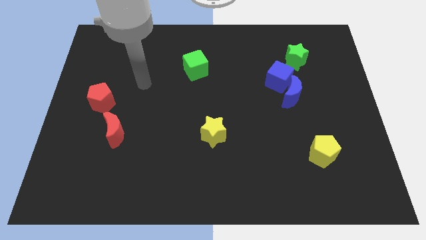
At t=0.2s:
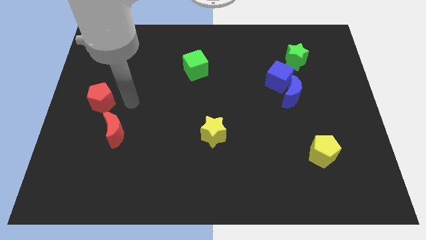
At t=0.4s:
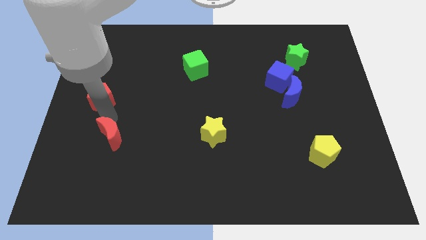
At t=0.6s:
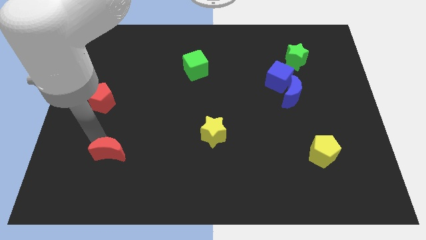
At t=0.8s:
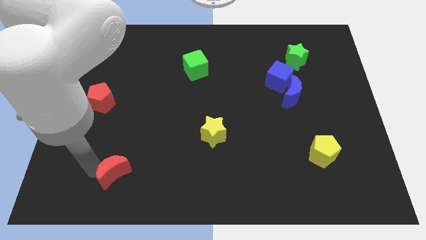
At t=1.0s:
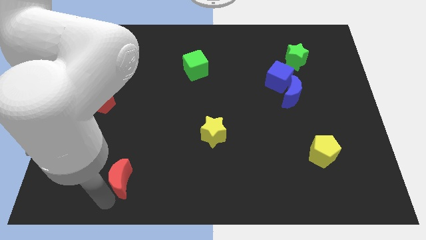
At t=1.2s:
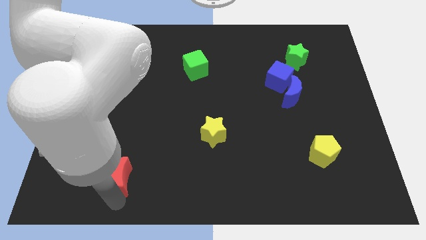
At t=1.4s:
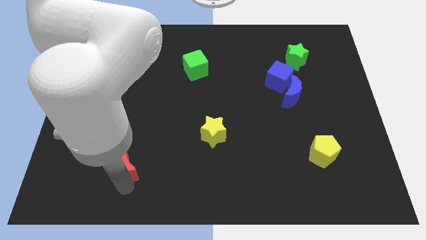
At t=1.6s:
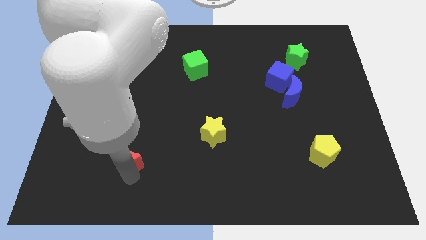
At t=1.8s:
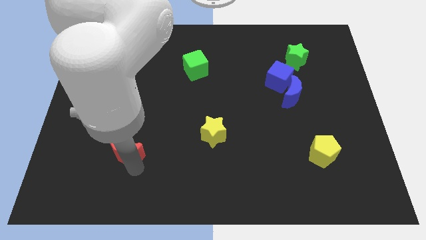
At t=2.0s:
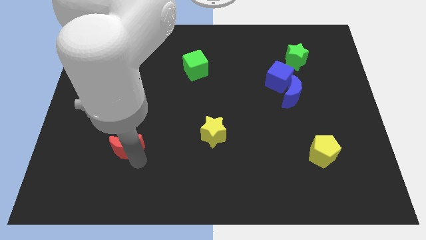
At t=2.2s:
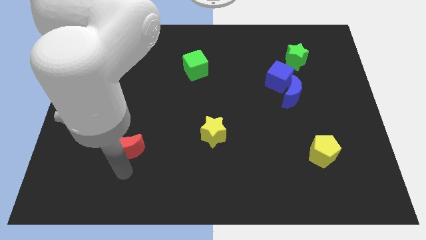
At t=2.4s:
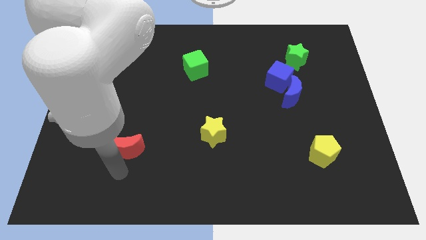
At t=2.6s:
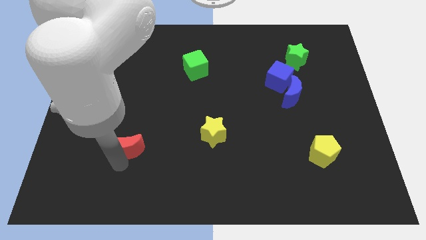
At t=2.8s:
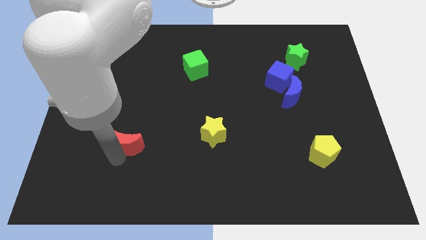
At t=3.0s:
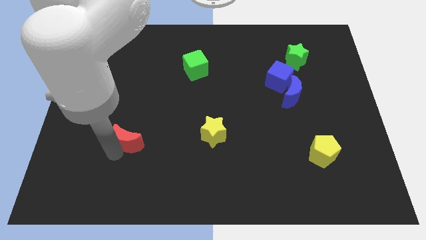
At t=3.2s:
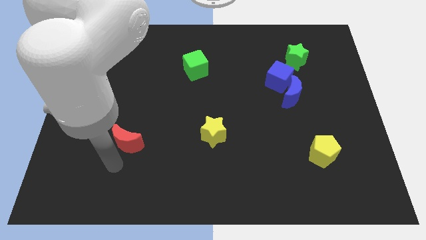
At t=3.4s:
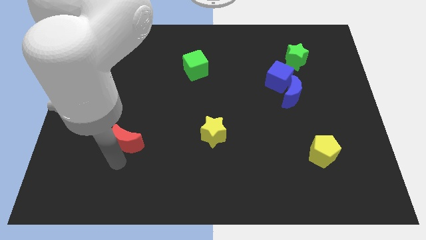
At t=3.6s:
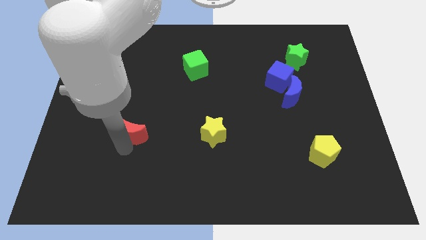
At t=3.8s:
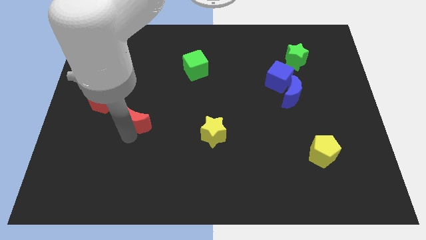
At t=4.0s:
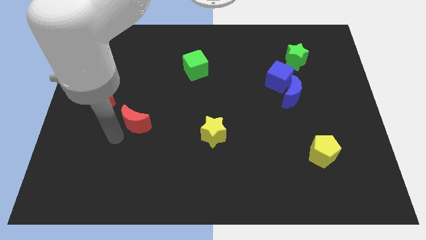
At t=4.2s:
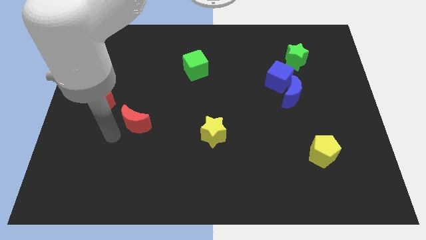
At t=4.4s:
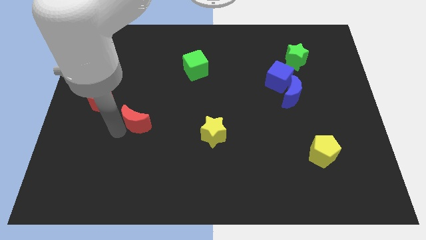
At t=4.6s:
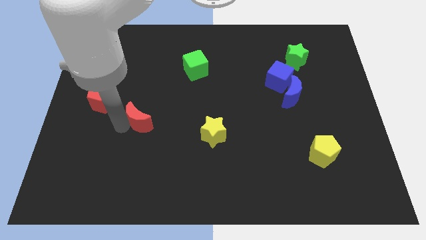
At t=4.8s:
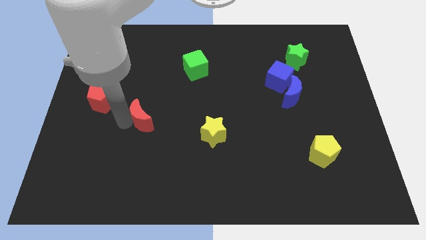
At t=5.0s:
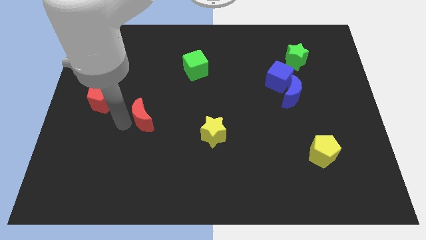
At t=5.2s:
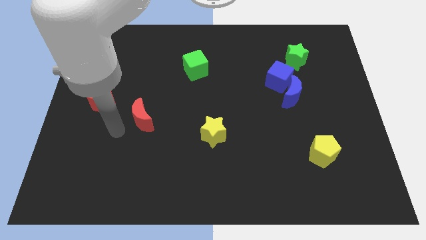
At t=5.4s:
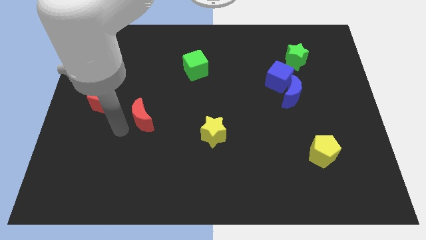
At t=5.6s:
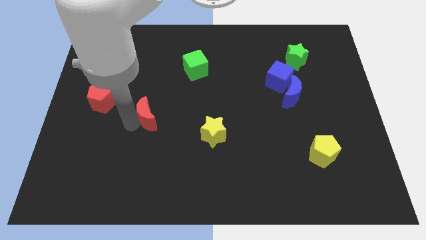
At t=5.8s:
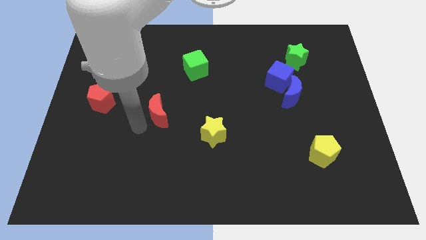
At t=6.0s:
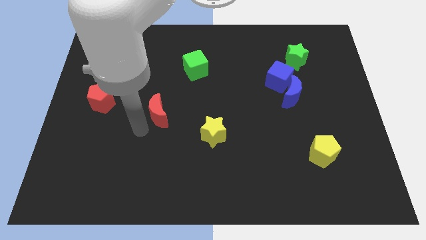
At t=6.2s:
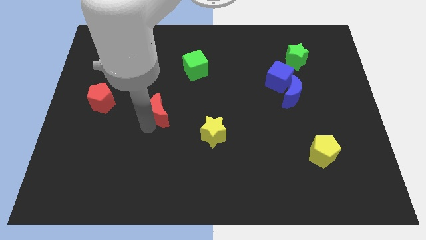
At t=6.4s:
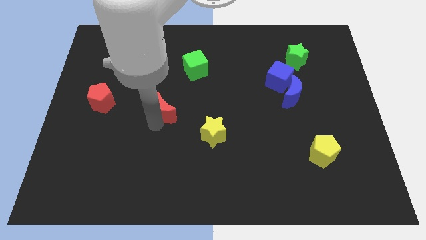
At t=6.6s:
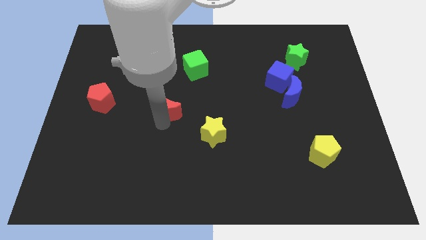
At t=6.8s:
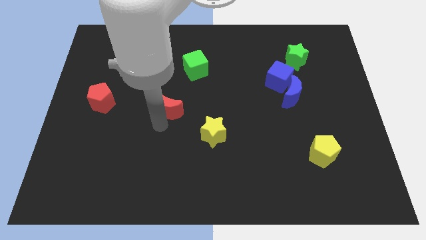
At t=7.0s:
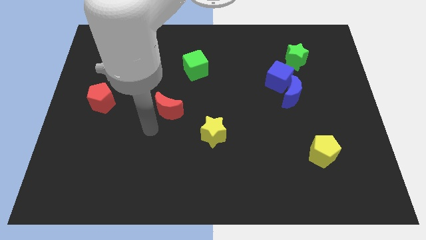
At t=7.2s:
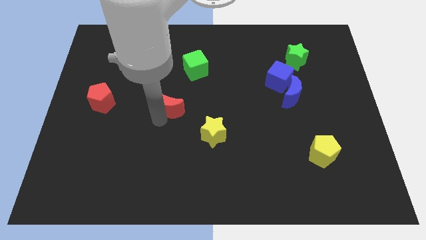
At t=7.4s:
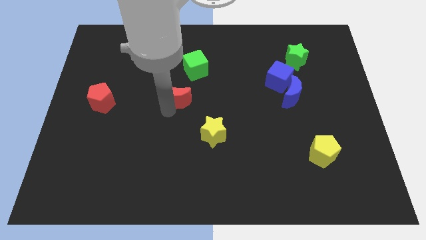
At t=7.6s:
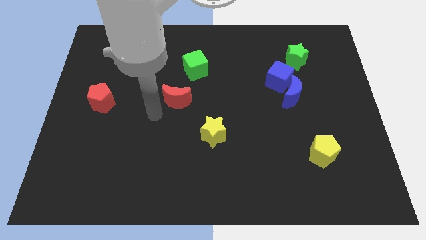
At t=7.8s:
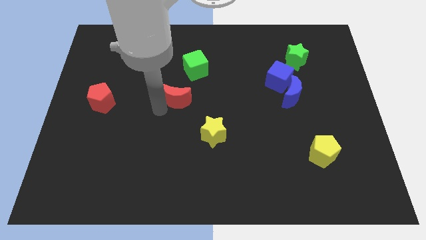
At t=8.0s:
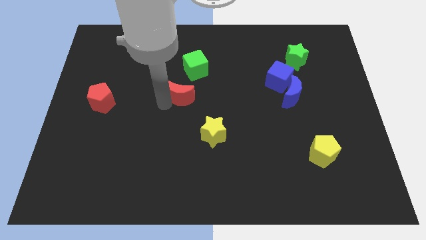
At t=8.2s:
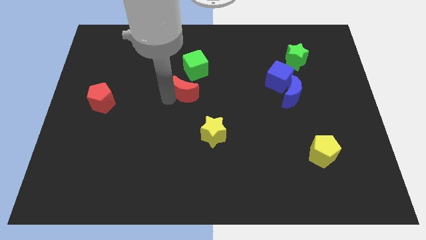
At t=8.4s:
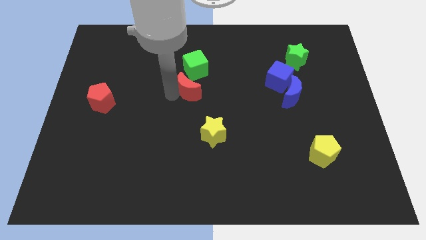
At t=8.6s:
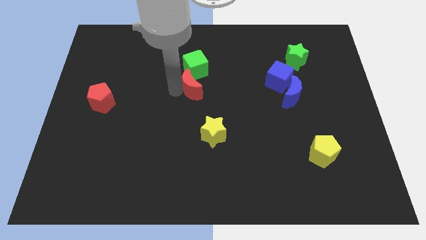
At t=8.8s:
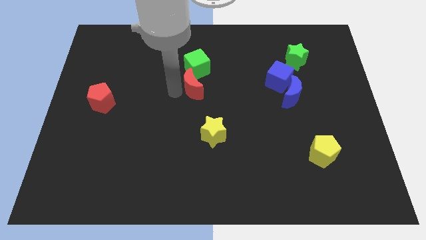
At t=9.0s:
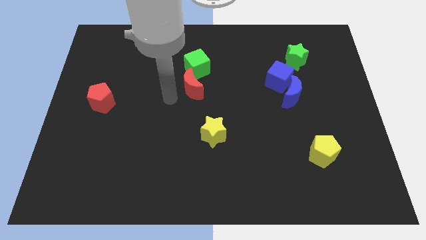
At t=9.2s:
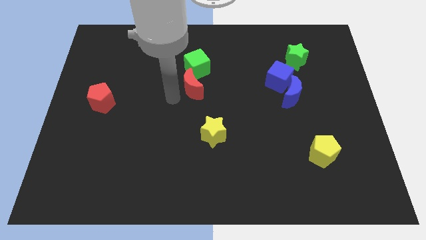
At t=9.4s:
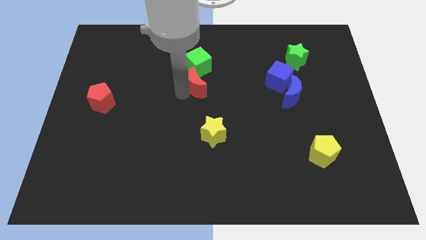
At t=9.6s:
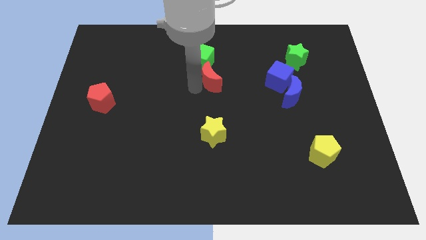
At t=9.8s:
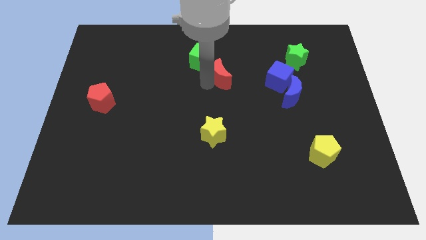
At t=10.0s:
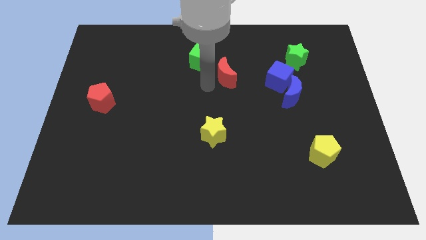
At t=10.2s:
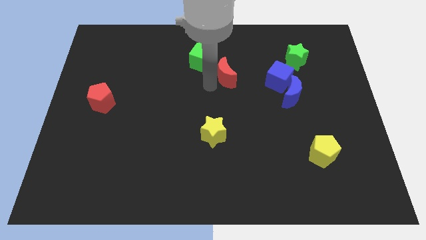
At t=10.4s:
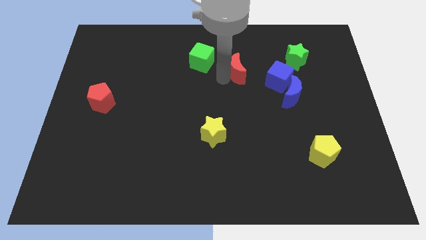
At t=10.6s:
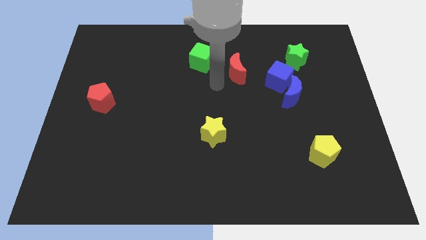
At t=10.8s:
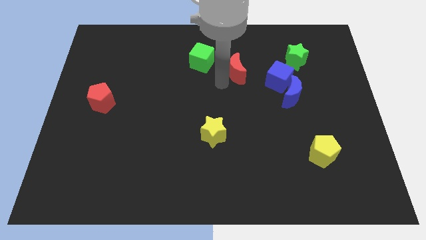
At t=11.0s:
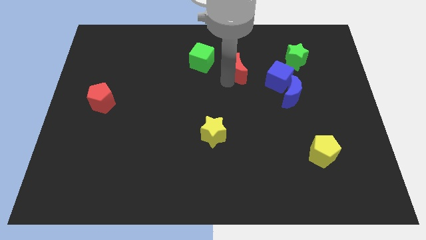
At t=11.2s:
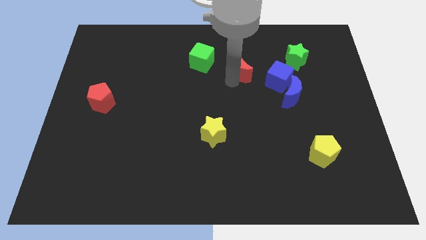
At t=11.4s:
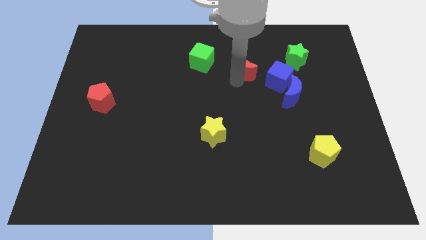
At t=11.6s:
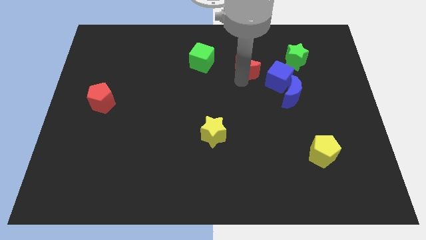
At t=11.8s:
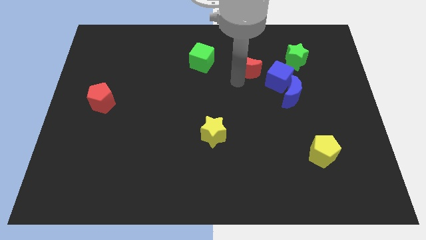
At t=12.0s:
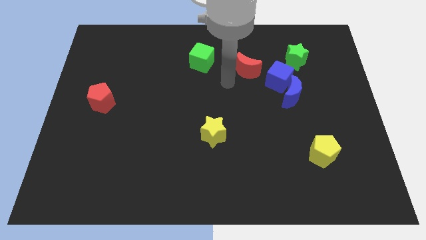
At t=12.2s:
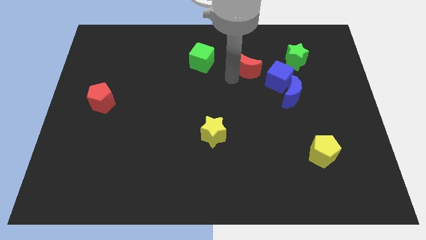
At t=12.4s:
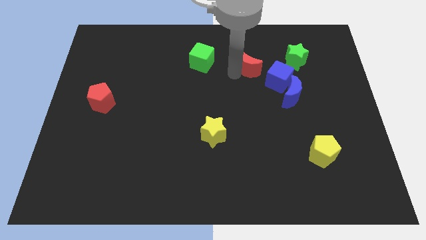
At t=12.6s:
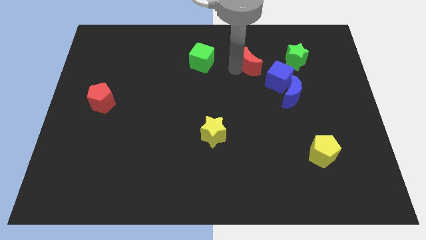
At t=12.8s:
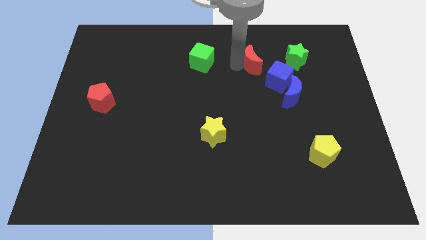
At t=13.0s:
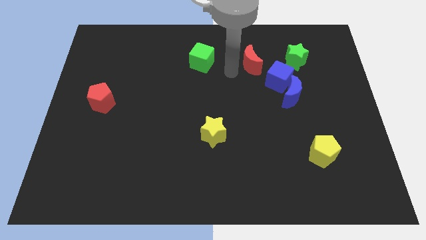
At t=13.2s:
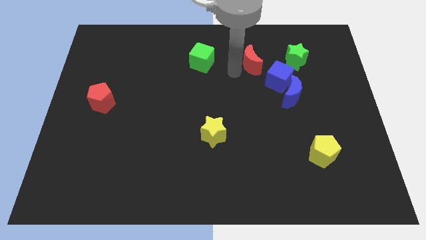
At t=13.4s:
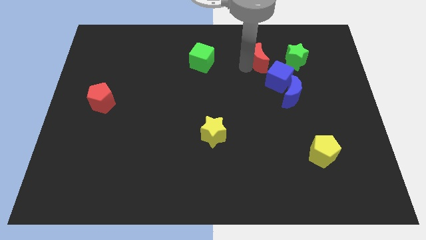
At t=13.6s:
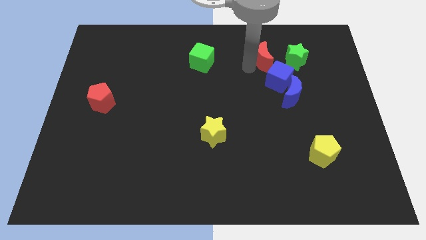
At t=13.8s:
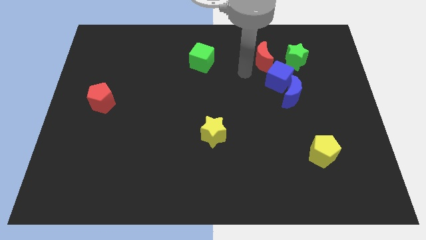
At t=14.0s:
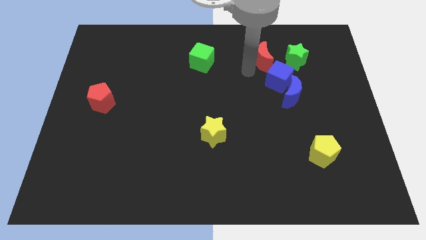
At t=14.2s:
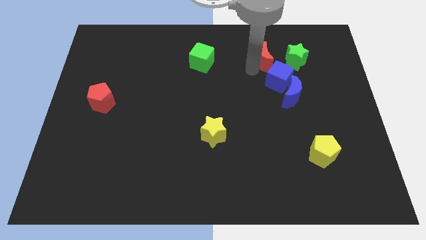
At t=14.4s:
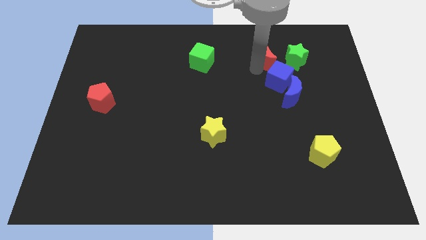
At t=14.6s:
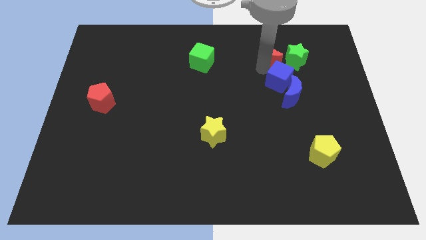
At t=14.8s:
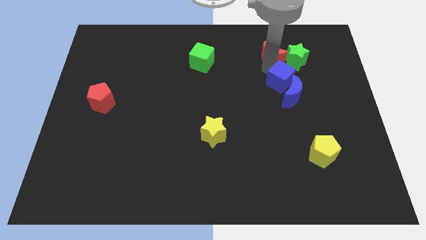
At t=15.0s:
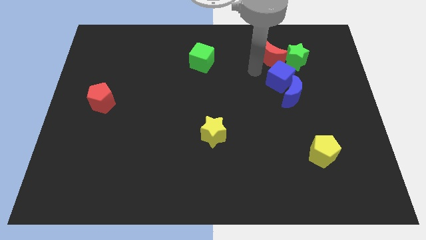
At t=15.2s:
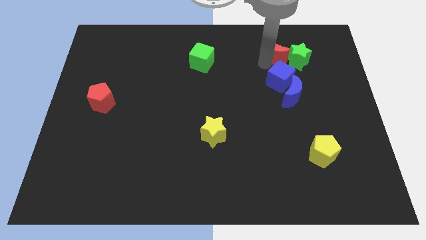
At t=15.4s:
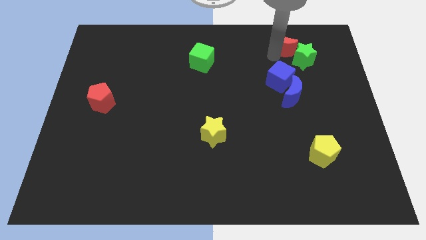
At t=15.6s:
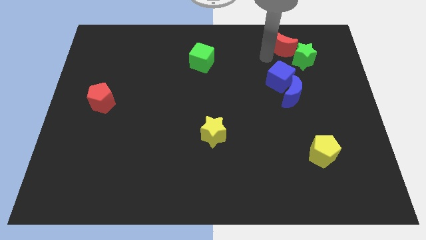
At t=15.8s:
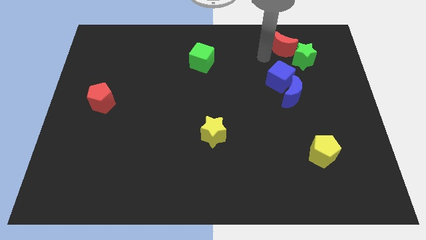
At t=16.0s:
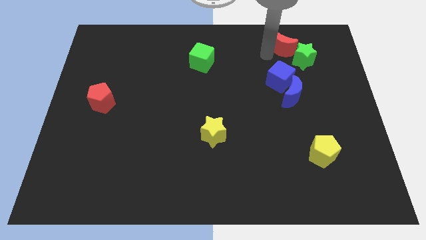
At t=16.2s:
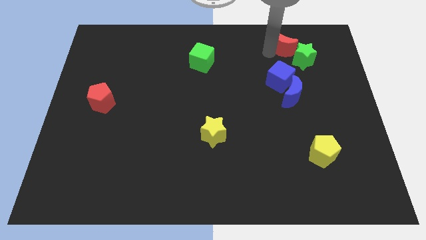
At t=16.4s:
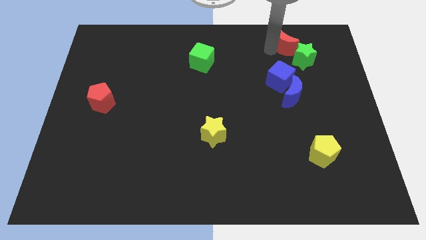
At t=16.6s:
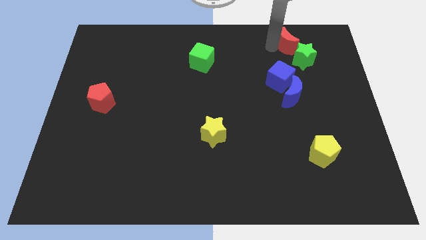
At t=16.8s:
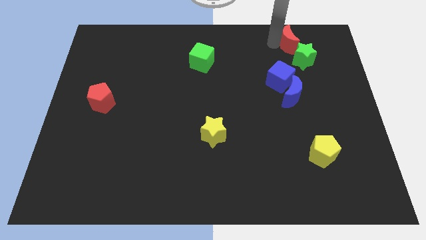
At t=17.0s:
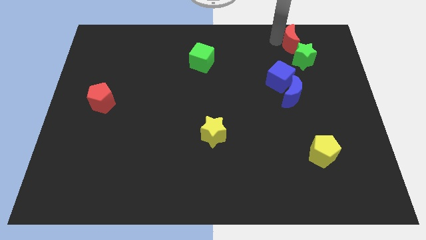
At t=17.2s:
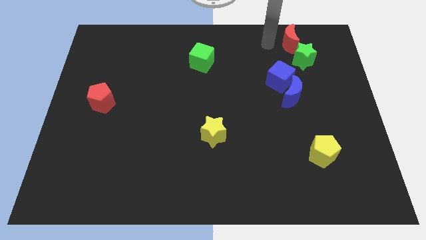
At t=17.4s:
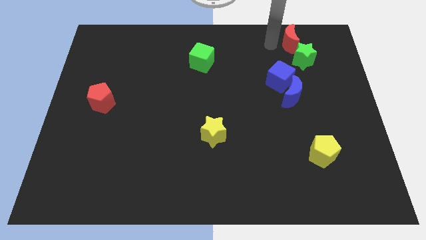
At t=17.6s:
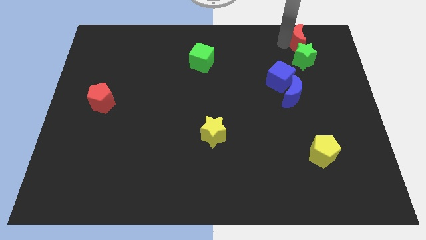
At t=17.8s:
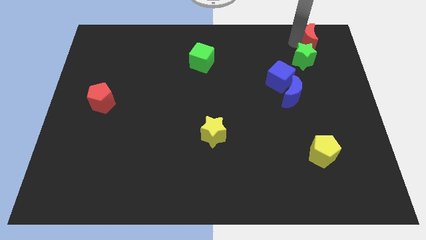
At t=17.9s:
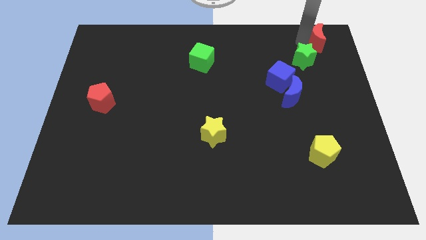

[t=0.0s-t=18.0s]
move the red moon to the top right
